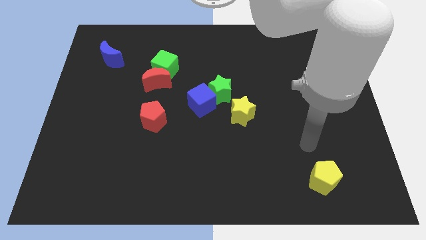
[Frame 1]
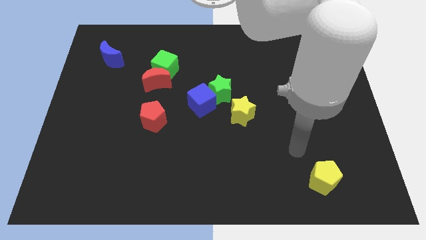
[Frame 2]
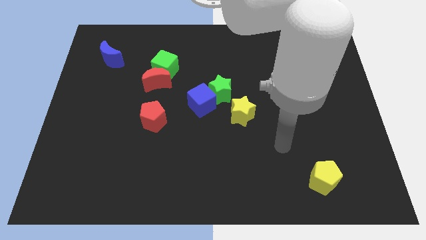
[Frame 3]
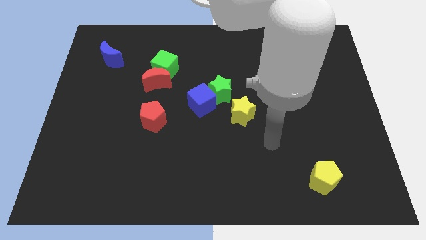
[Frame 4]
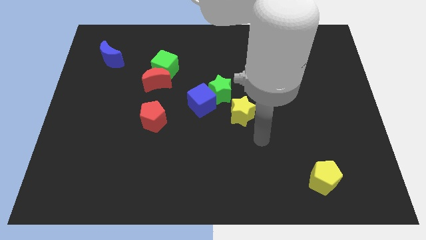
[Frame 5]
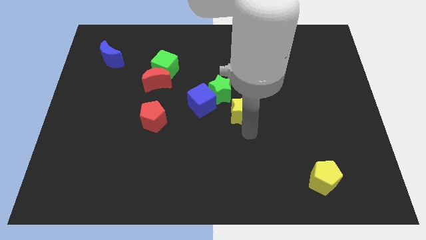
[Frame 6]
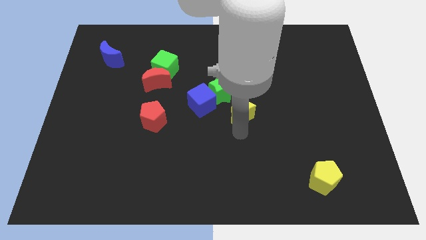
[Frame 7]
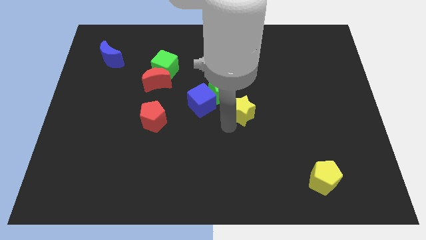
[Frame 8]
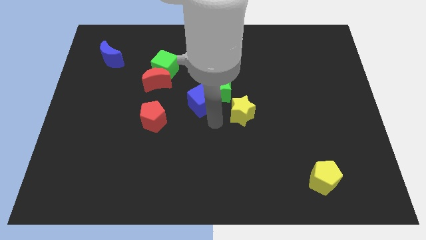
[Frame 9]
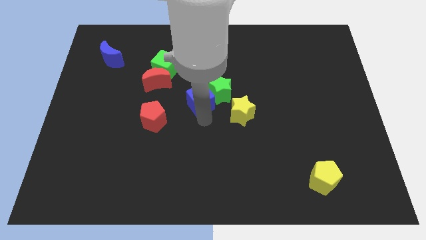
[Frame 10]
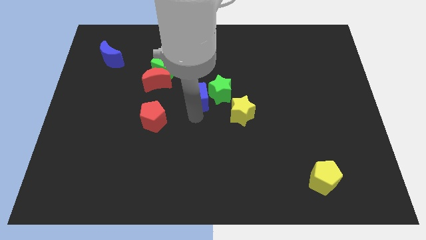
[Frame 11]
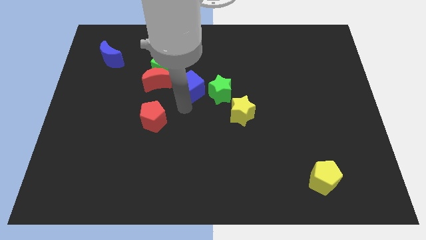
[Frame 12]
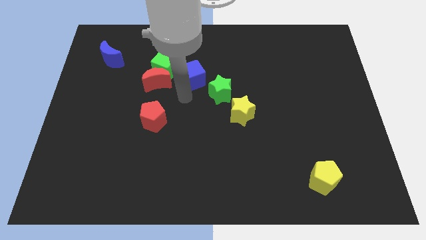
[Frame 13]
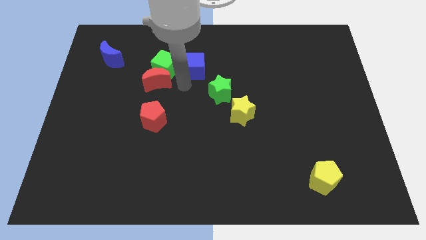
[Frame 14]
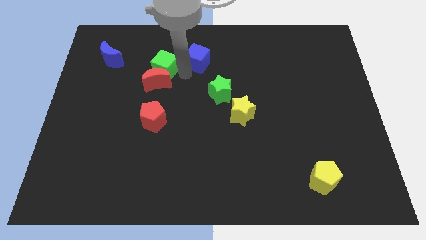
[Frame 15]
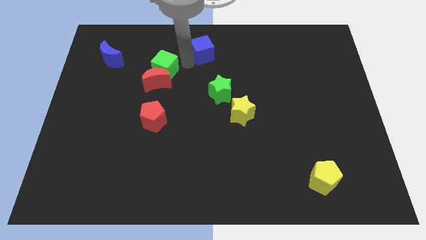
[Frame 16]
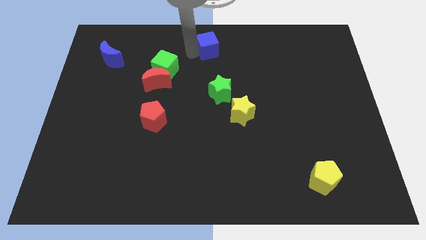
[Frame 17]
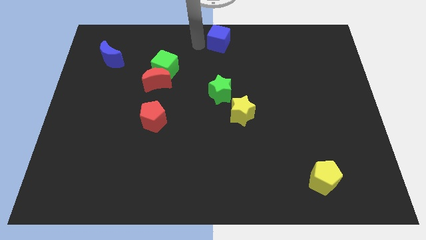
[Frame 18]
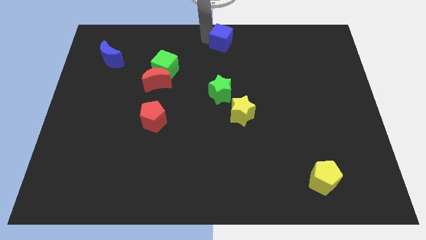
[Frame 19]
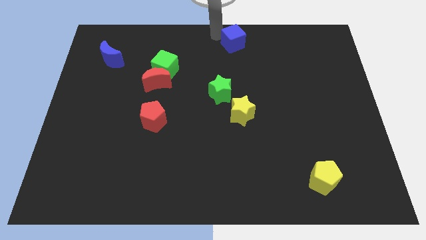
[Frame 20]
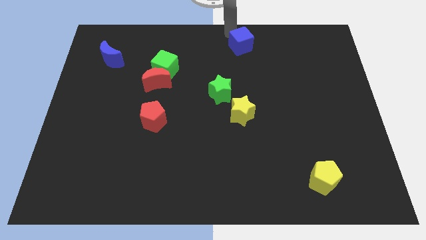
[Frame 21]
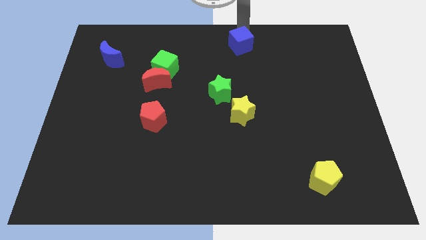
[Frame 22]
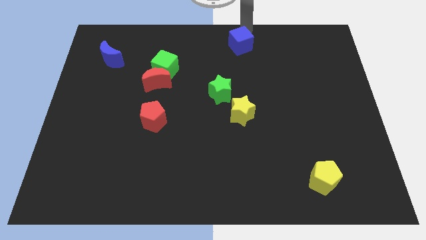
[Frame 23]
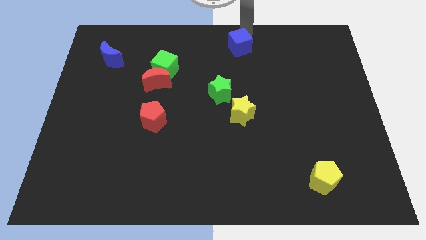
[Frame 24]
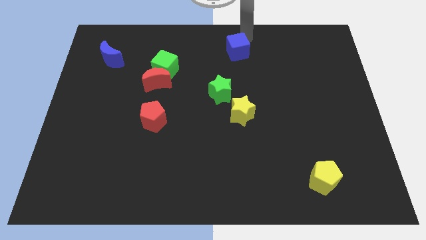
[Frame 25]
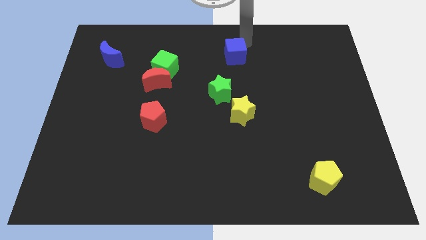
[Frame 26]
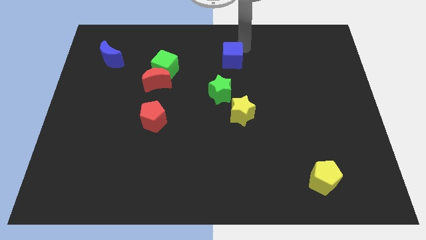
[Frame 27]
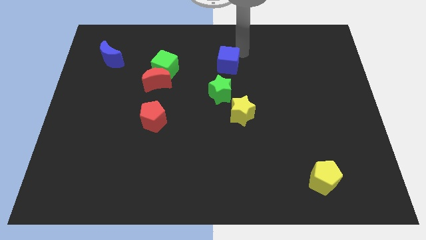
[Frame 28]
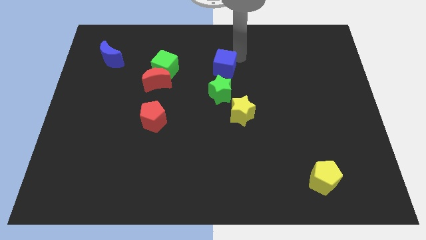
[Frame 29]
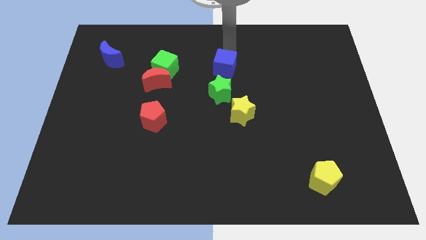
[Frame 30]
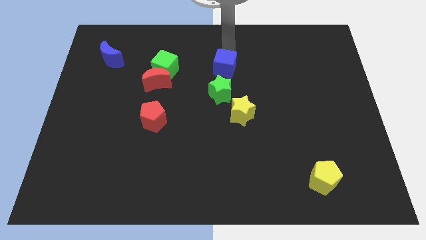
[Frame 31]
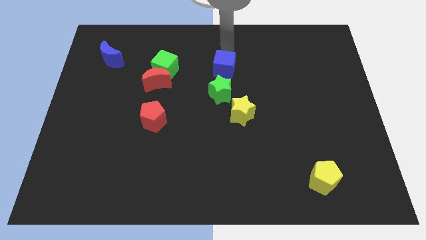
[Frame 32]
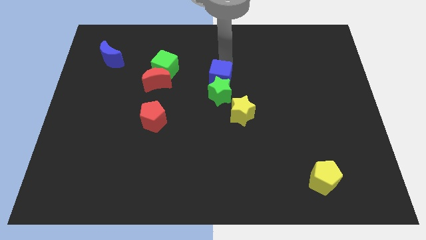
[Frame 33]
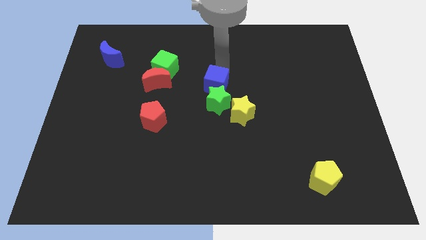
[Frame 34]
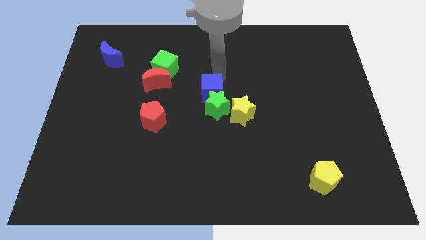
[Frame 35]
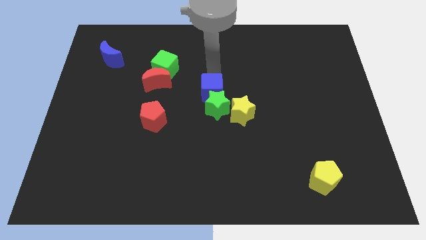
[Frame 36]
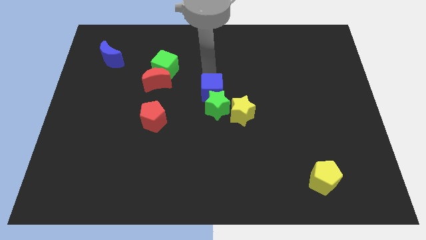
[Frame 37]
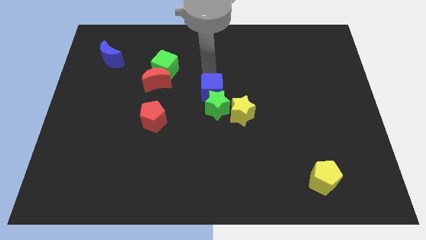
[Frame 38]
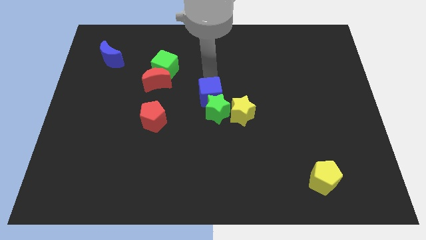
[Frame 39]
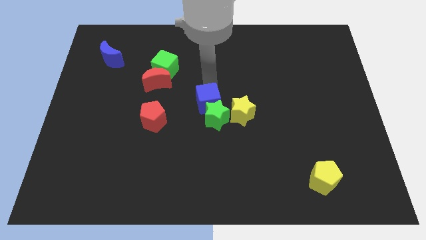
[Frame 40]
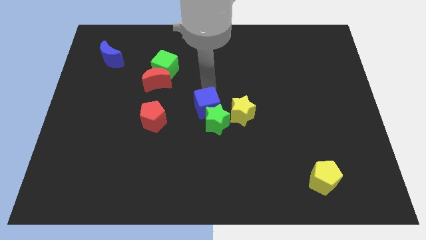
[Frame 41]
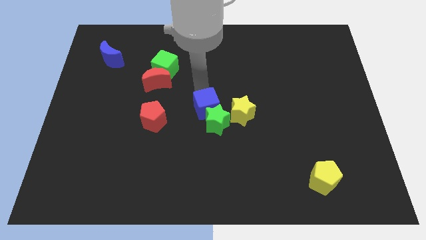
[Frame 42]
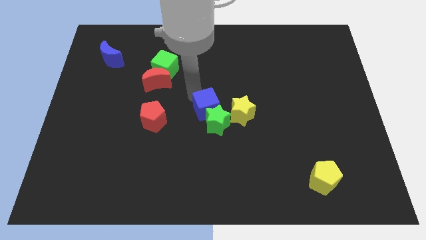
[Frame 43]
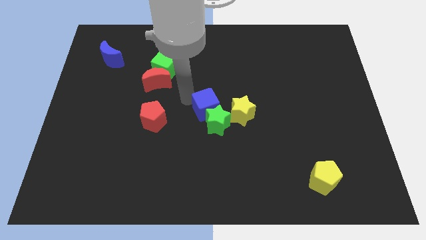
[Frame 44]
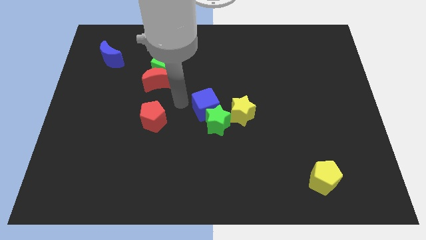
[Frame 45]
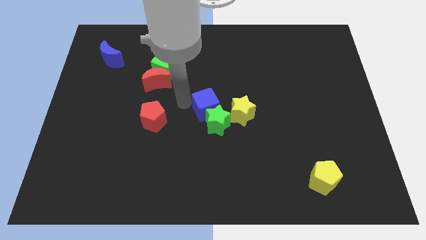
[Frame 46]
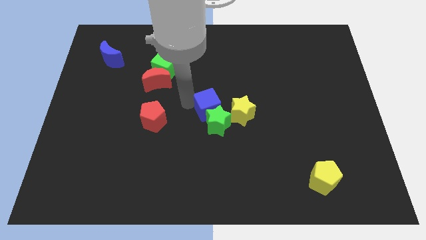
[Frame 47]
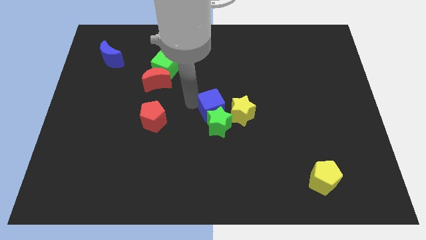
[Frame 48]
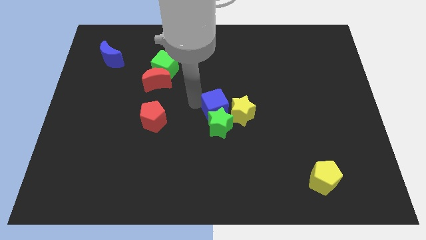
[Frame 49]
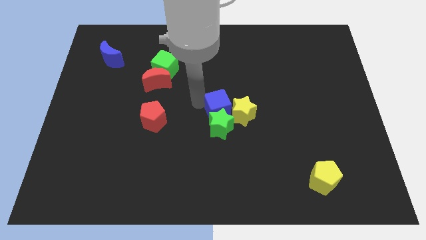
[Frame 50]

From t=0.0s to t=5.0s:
slide the blue cube next to the yellow star

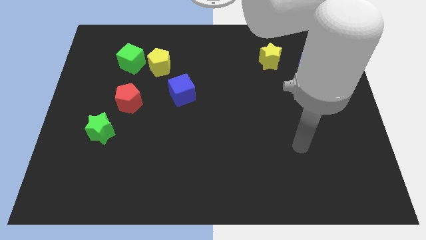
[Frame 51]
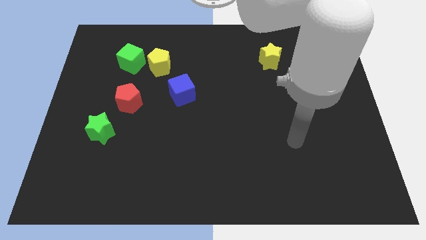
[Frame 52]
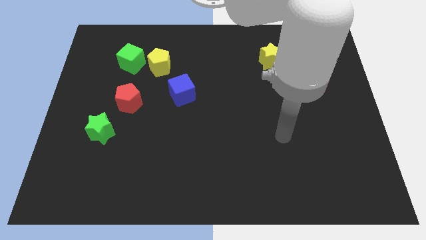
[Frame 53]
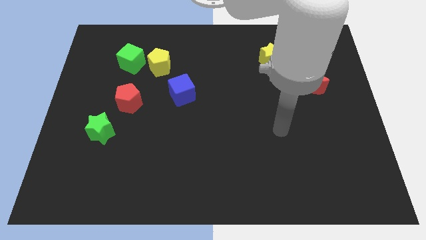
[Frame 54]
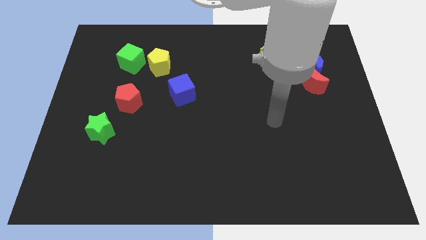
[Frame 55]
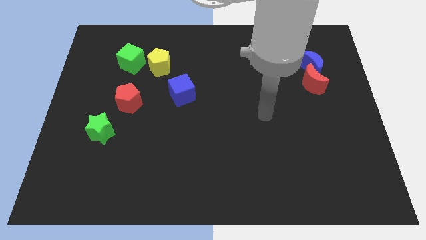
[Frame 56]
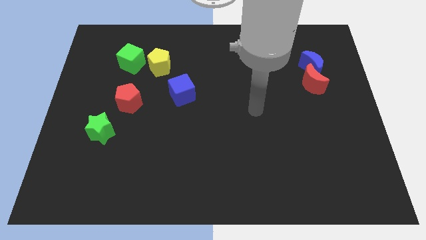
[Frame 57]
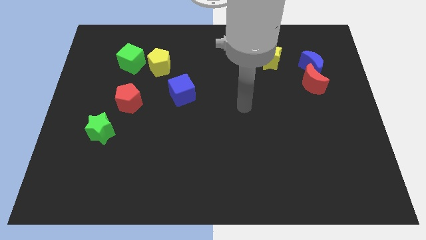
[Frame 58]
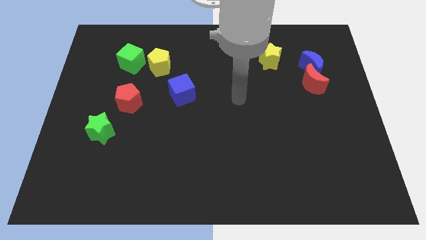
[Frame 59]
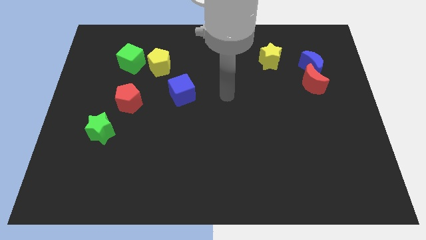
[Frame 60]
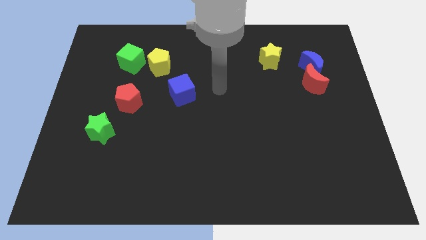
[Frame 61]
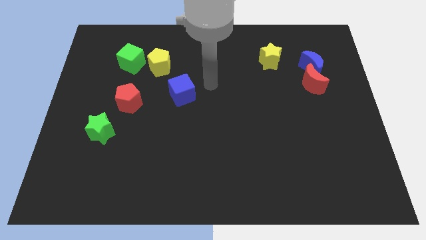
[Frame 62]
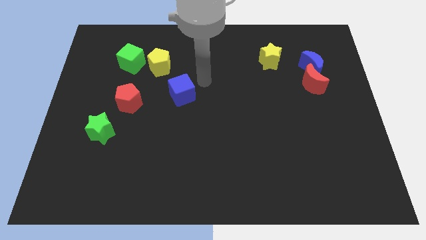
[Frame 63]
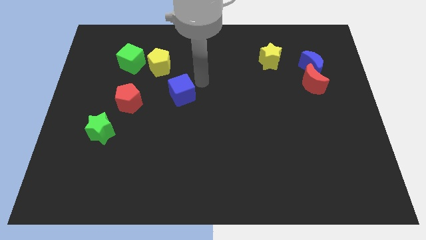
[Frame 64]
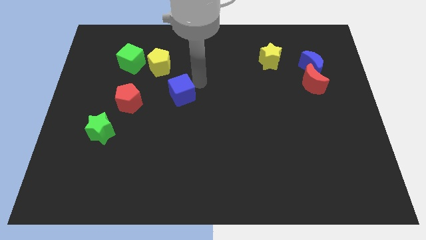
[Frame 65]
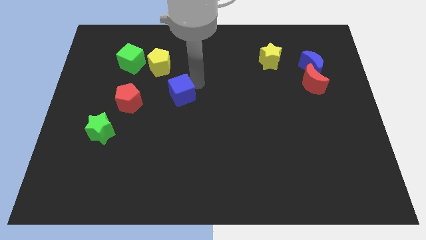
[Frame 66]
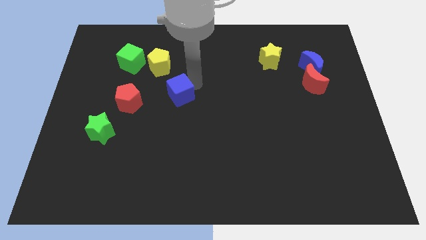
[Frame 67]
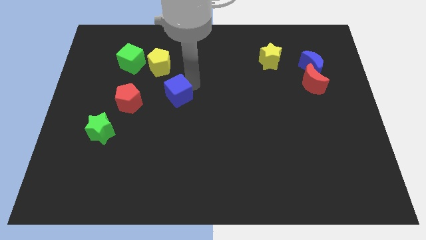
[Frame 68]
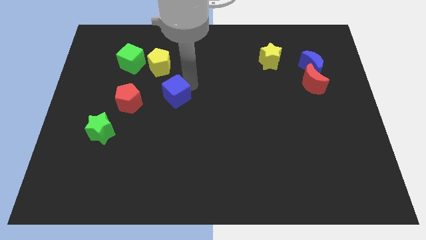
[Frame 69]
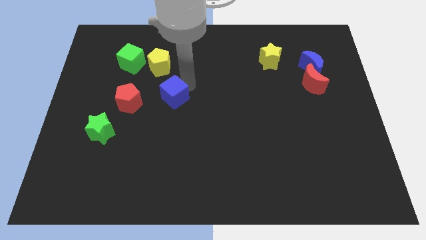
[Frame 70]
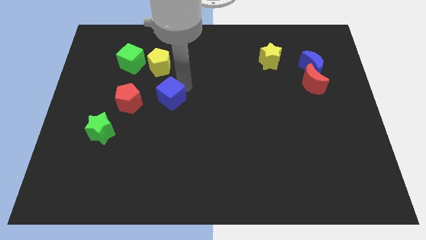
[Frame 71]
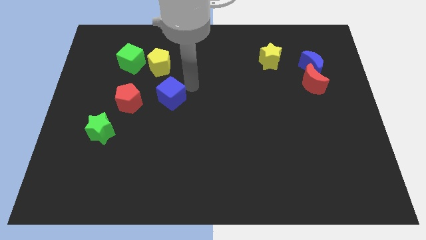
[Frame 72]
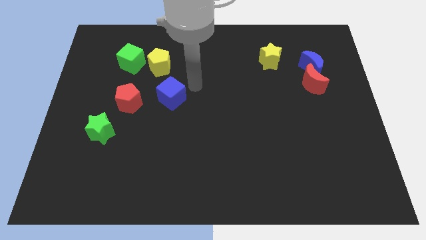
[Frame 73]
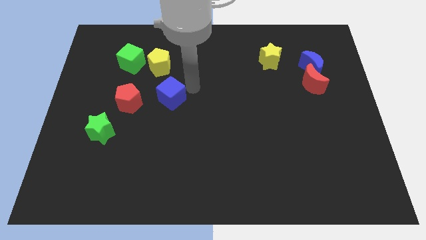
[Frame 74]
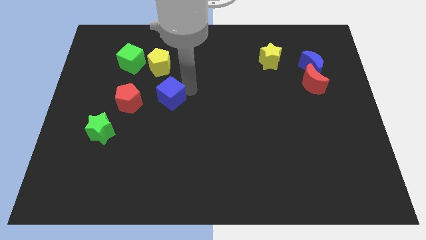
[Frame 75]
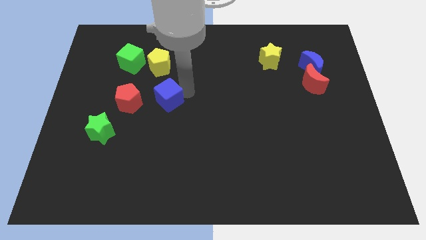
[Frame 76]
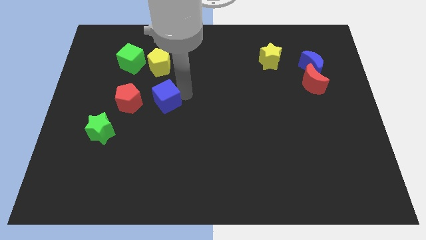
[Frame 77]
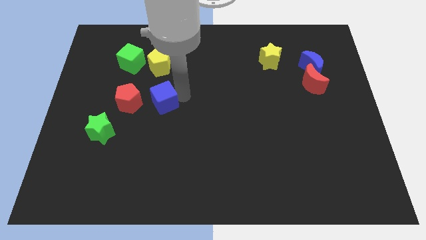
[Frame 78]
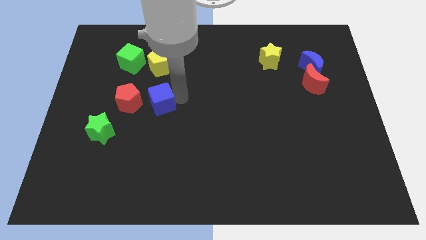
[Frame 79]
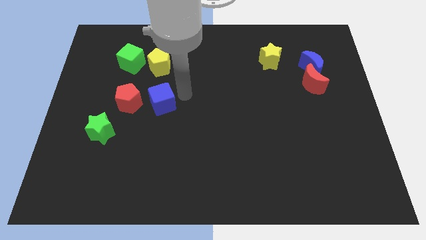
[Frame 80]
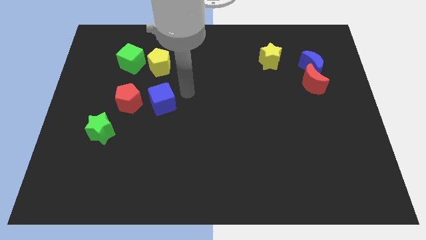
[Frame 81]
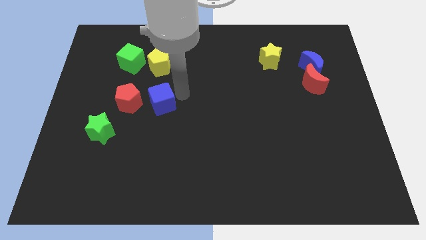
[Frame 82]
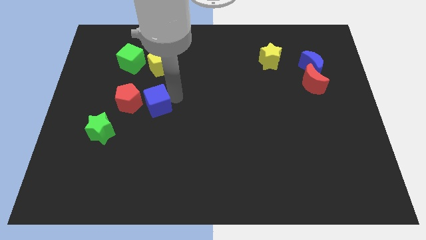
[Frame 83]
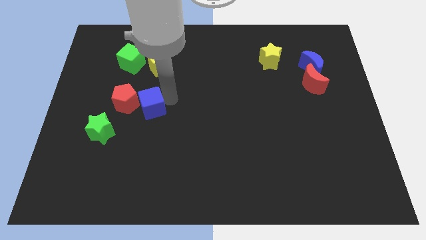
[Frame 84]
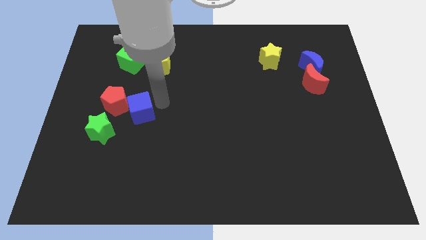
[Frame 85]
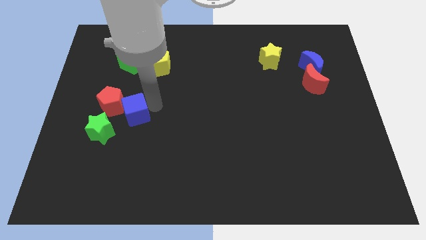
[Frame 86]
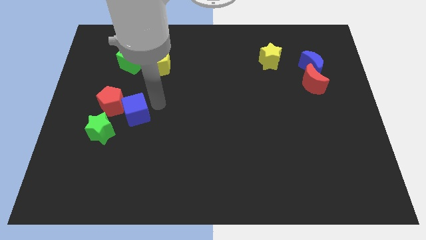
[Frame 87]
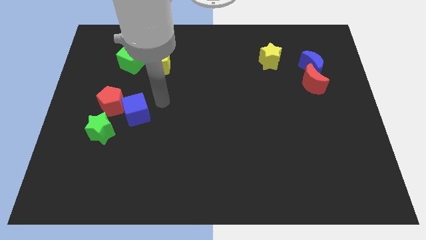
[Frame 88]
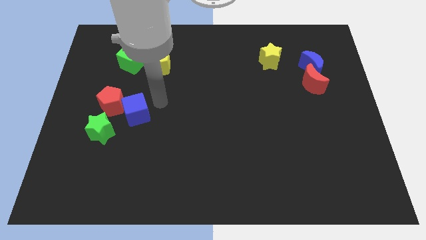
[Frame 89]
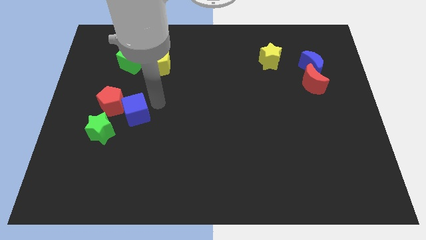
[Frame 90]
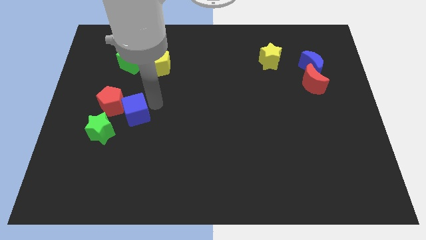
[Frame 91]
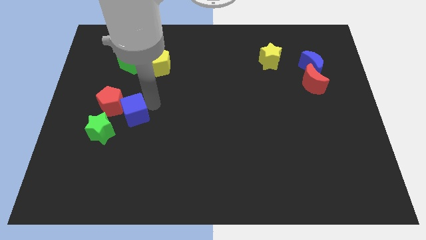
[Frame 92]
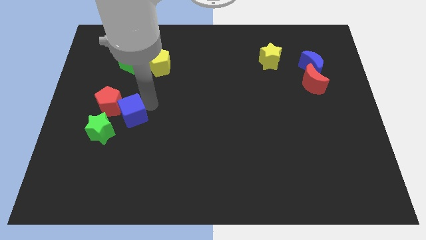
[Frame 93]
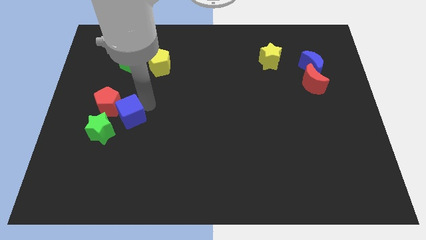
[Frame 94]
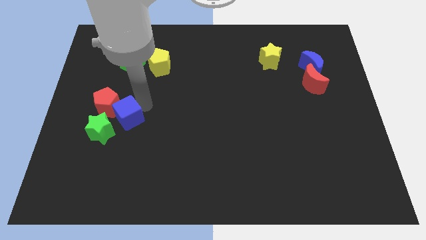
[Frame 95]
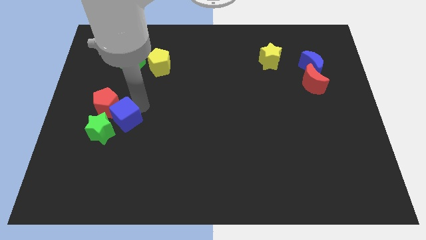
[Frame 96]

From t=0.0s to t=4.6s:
push the blue cube to the green star
